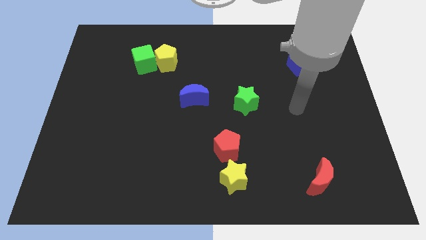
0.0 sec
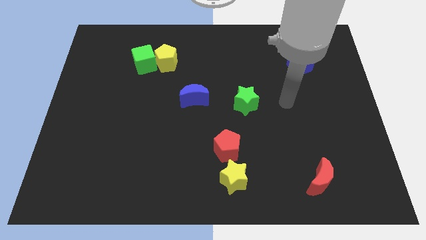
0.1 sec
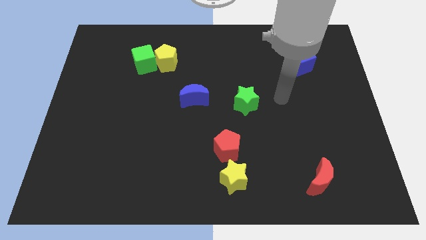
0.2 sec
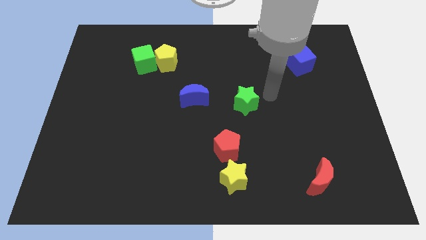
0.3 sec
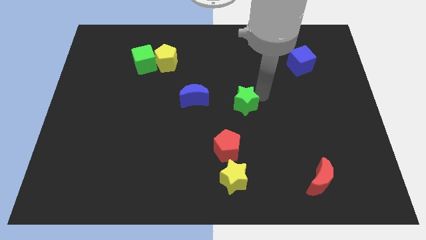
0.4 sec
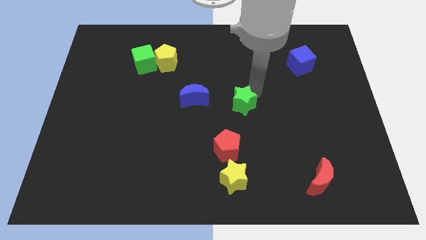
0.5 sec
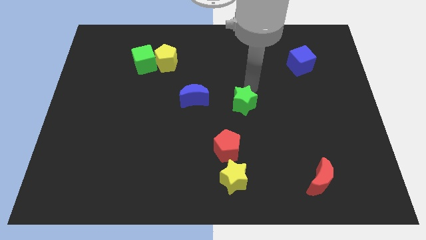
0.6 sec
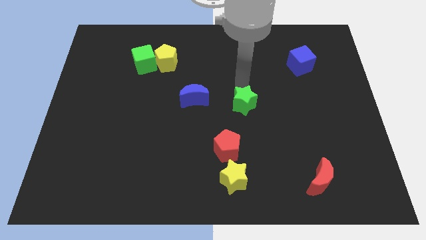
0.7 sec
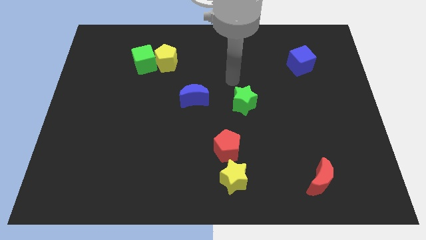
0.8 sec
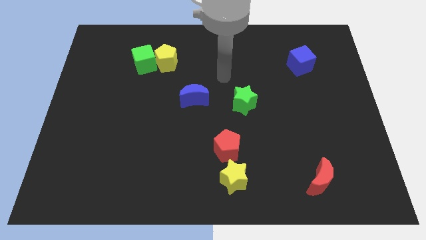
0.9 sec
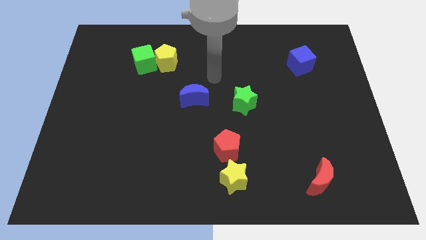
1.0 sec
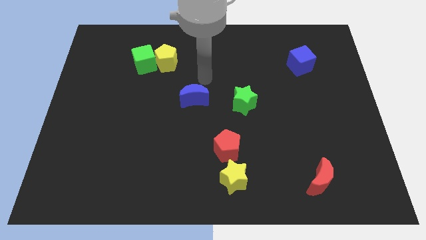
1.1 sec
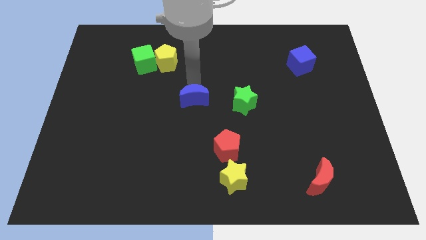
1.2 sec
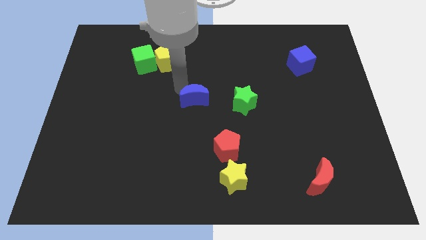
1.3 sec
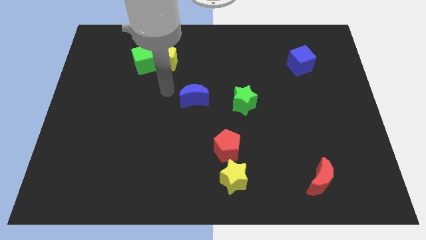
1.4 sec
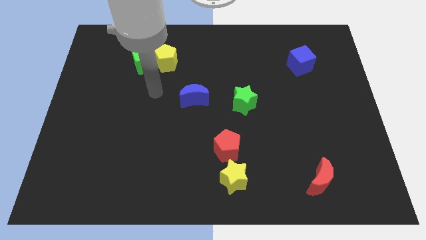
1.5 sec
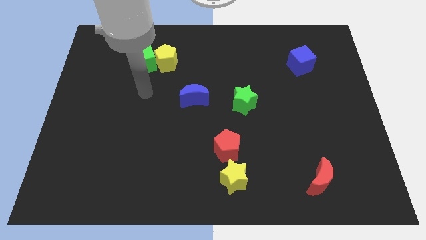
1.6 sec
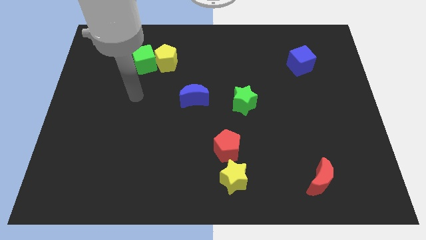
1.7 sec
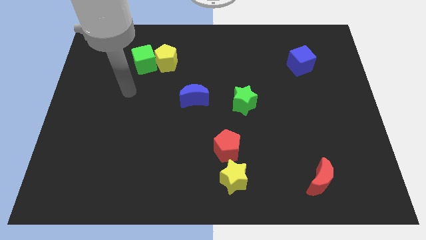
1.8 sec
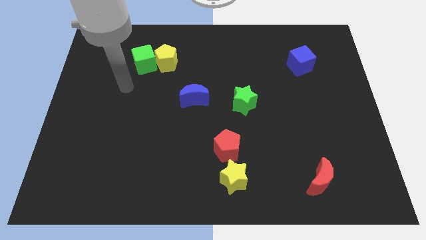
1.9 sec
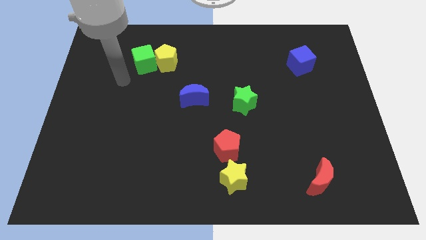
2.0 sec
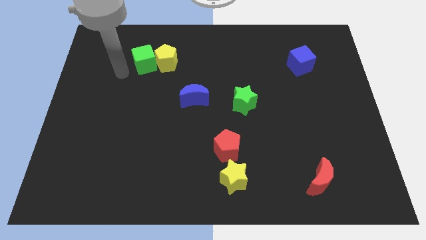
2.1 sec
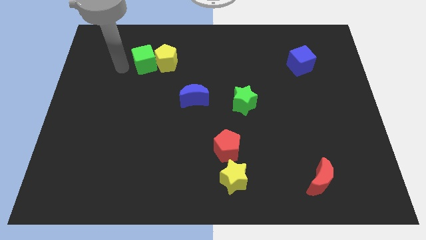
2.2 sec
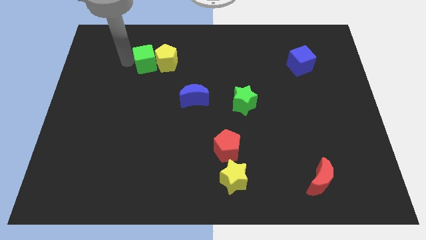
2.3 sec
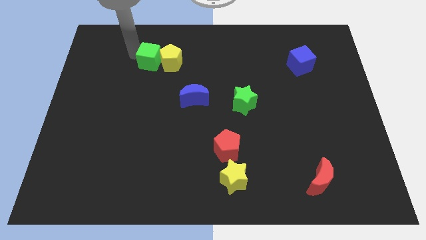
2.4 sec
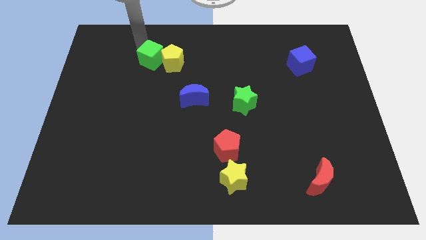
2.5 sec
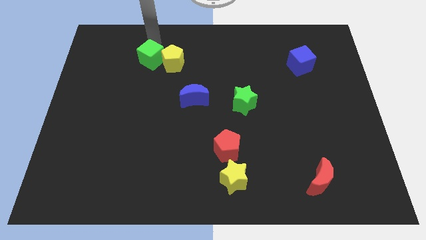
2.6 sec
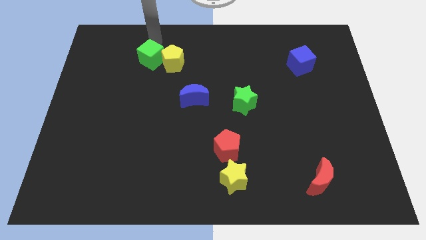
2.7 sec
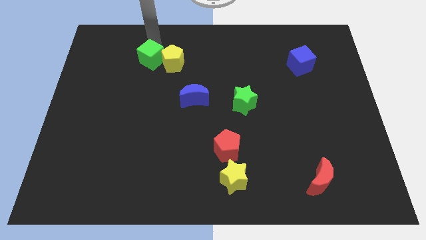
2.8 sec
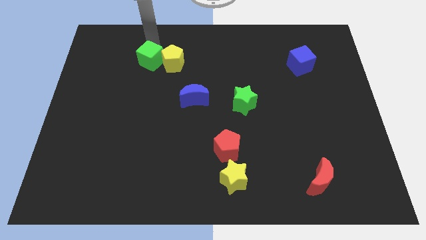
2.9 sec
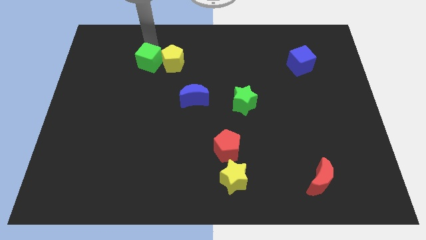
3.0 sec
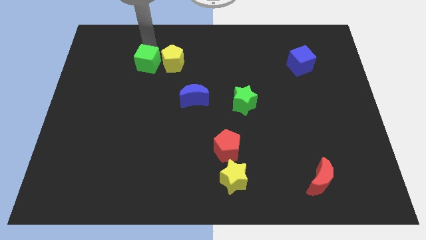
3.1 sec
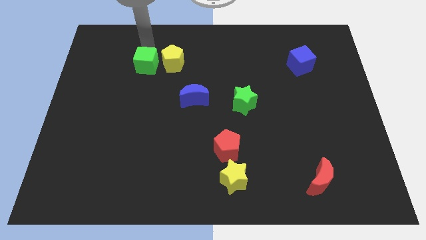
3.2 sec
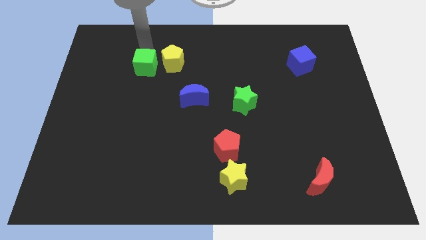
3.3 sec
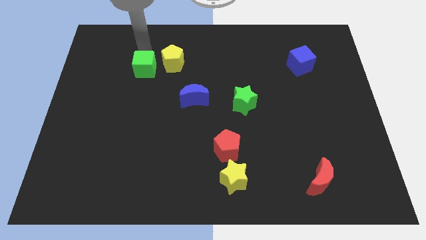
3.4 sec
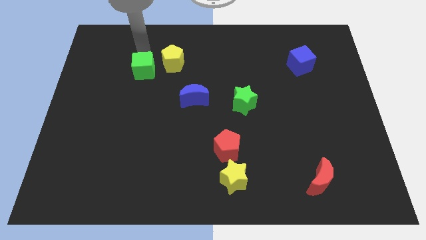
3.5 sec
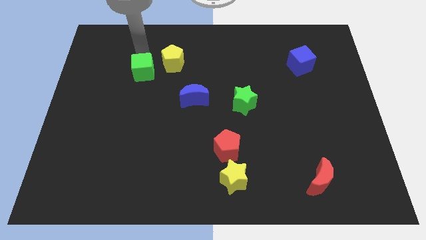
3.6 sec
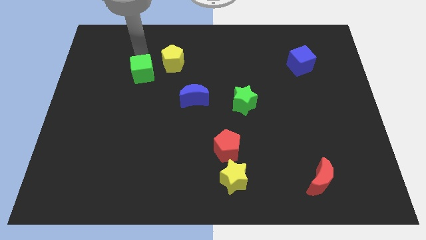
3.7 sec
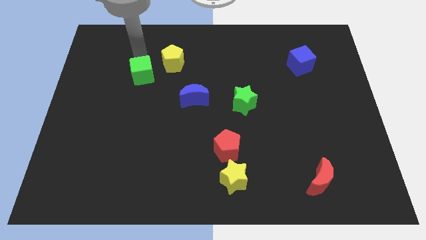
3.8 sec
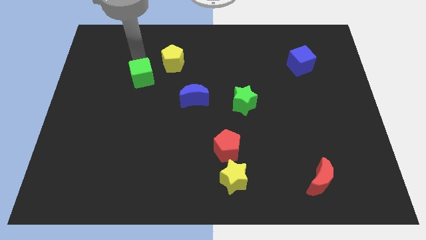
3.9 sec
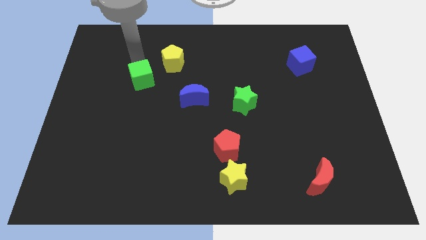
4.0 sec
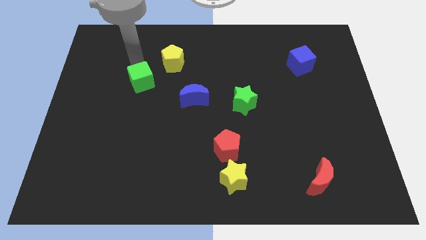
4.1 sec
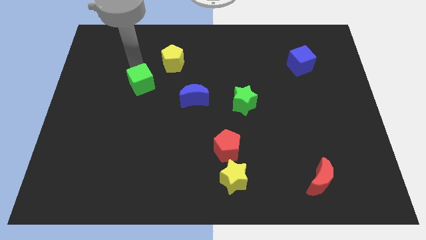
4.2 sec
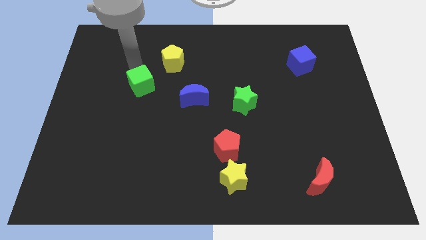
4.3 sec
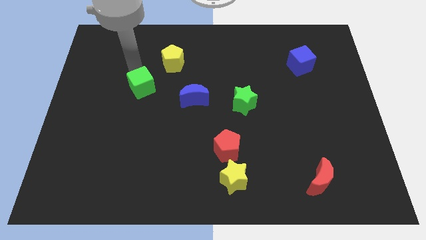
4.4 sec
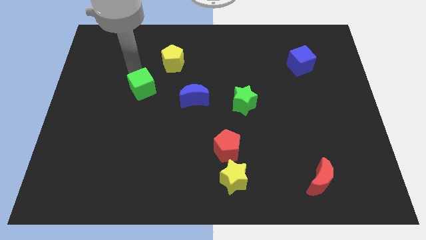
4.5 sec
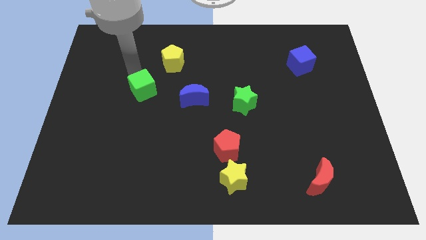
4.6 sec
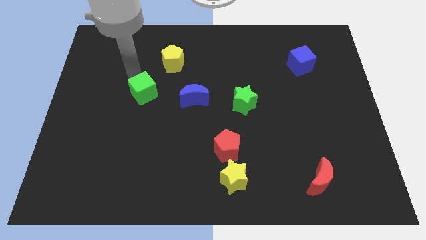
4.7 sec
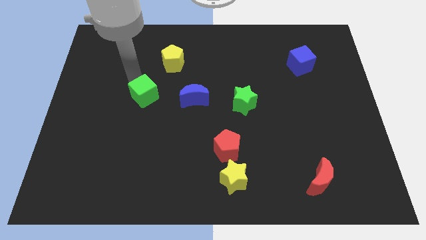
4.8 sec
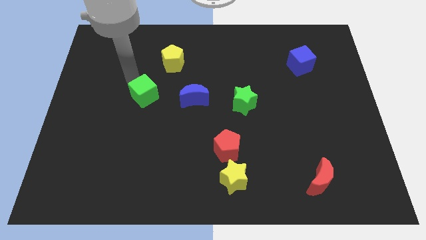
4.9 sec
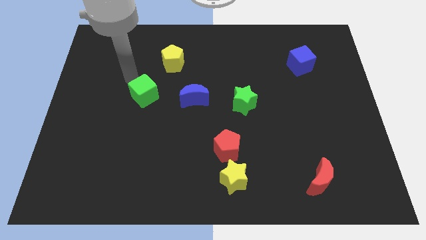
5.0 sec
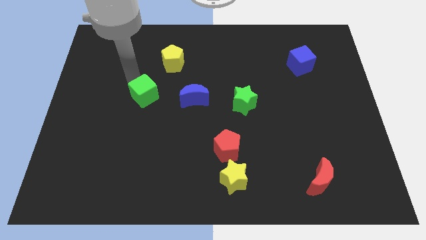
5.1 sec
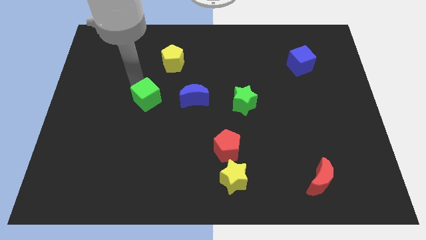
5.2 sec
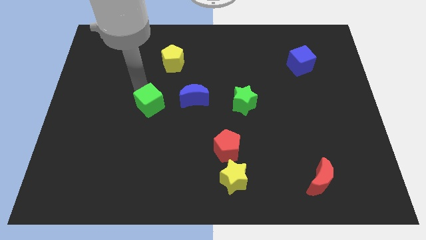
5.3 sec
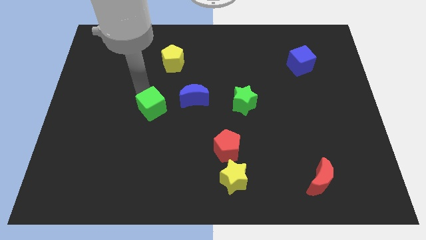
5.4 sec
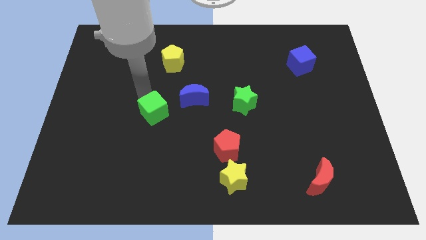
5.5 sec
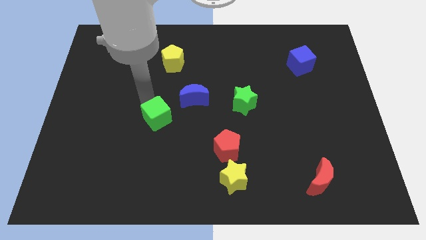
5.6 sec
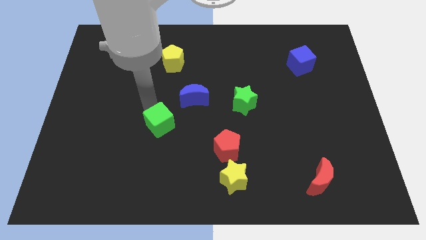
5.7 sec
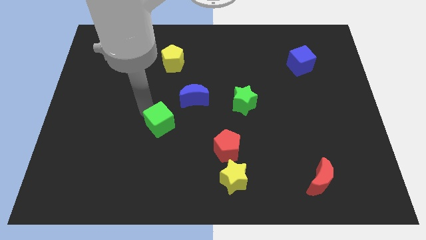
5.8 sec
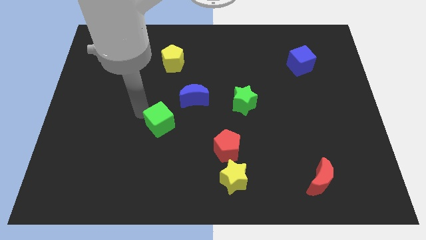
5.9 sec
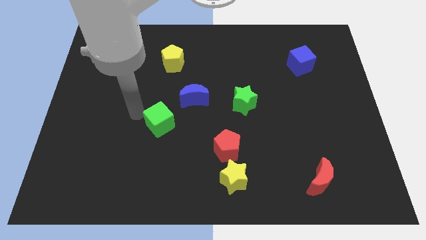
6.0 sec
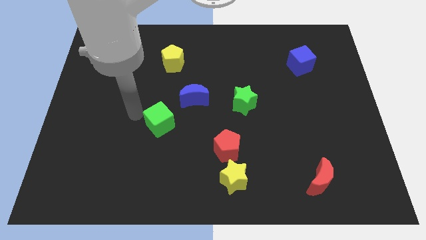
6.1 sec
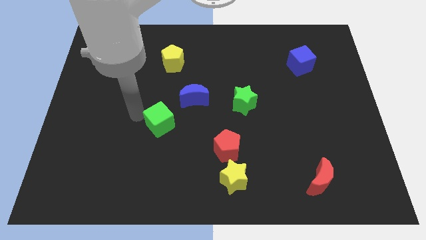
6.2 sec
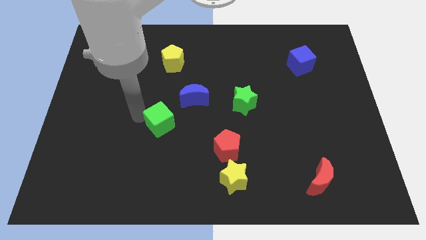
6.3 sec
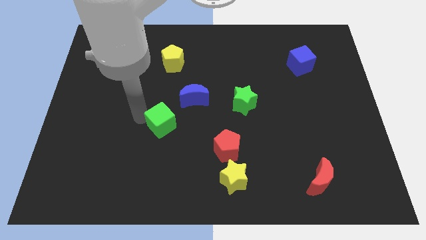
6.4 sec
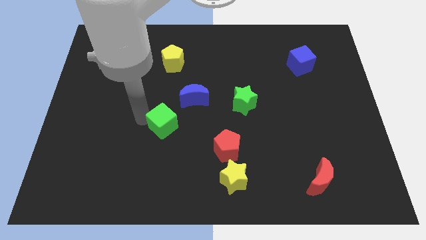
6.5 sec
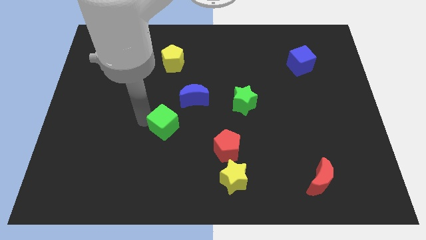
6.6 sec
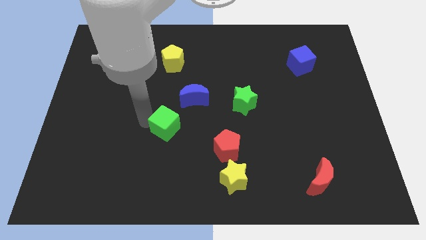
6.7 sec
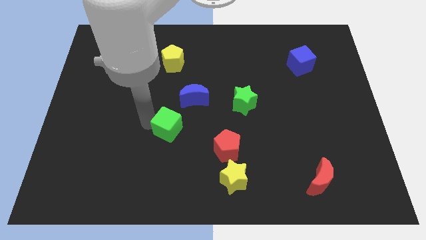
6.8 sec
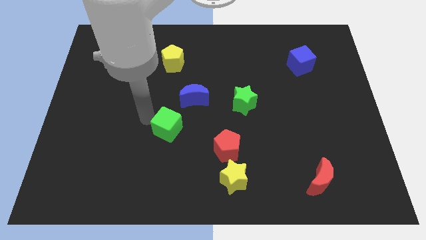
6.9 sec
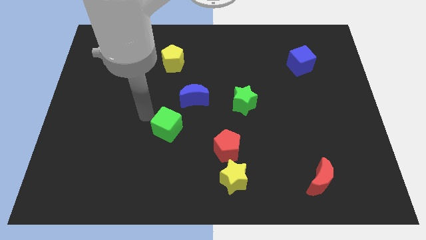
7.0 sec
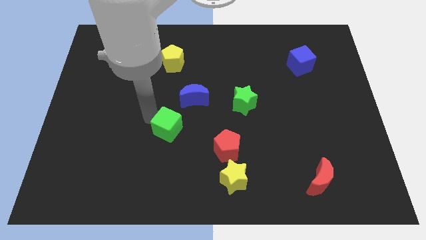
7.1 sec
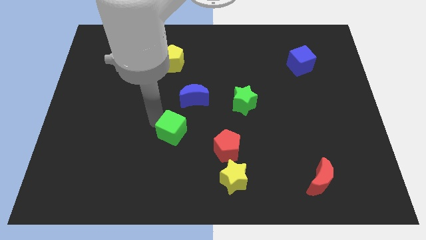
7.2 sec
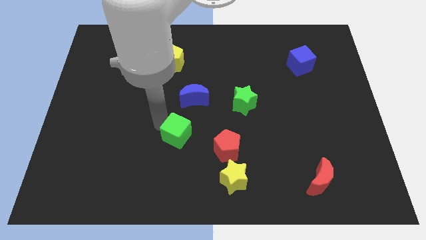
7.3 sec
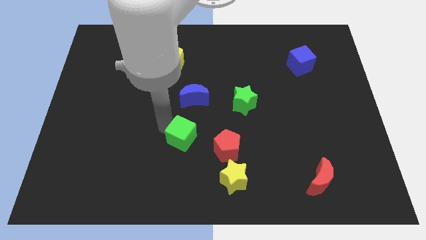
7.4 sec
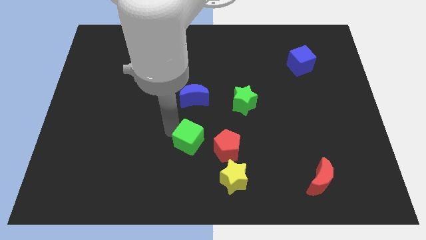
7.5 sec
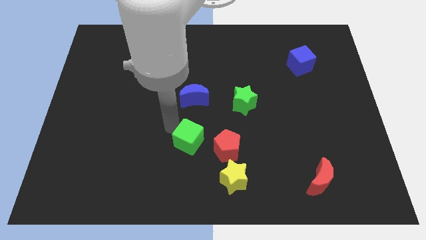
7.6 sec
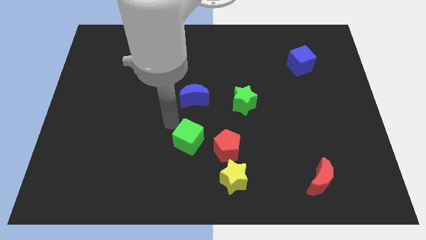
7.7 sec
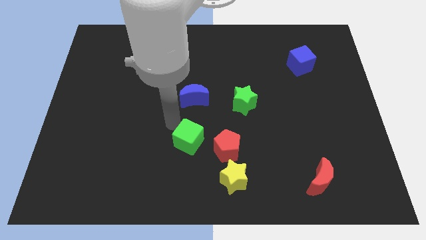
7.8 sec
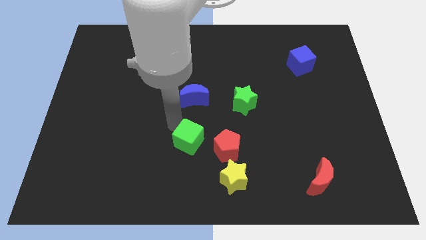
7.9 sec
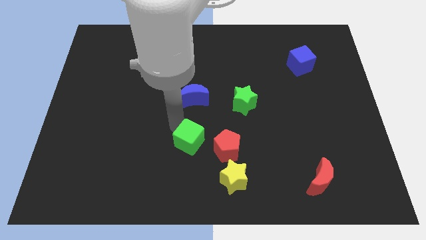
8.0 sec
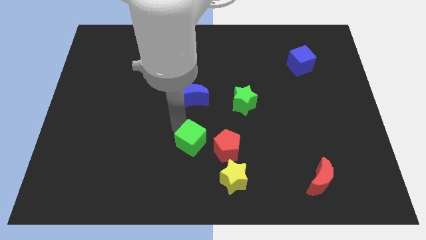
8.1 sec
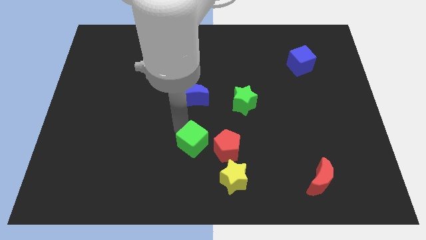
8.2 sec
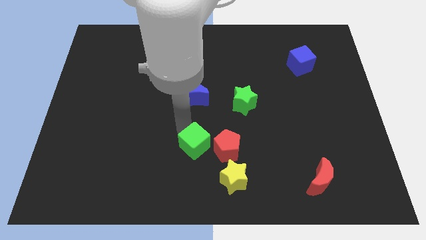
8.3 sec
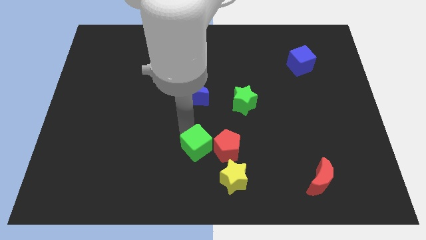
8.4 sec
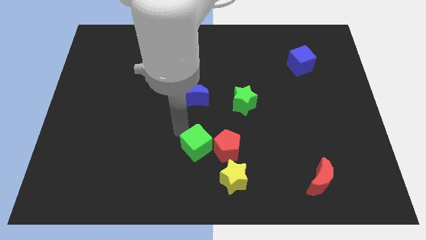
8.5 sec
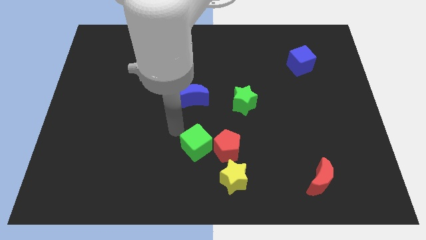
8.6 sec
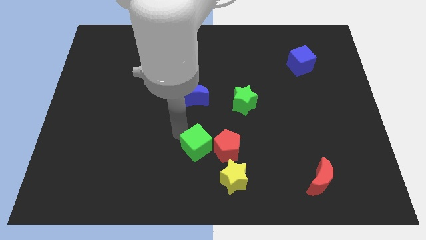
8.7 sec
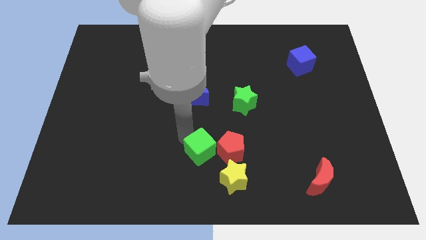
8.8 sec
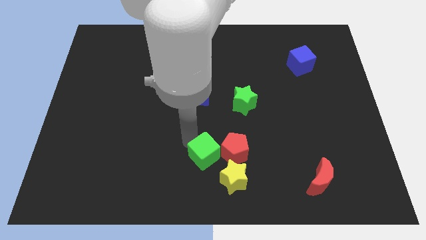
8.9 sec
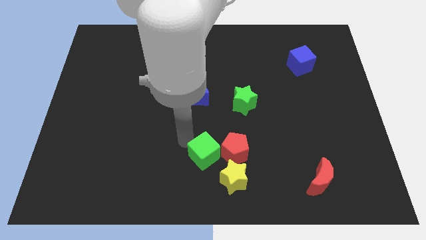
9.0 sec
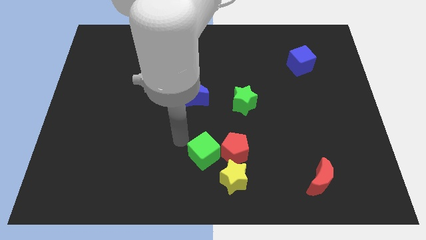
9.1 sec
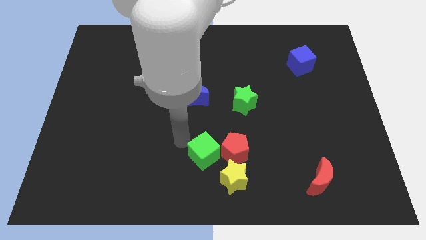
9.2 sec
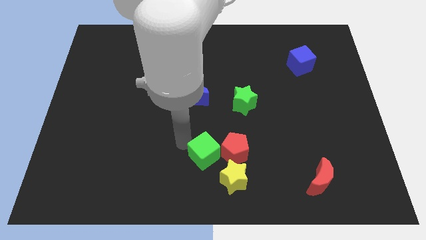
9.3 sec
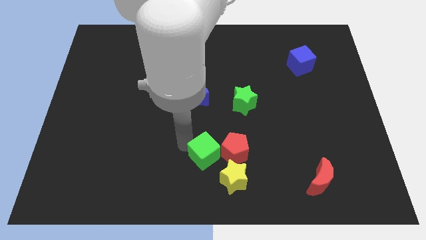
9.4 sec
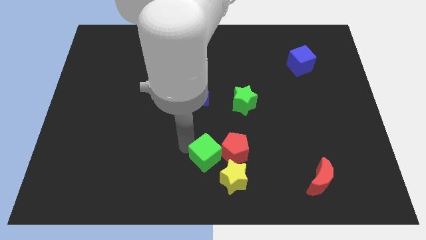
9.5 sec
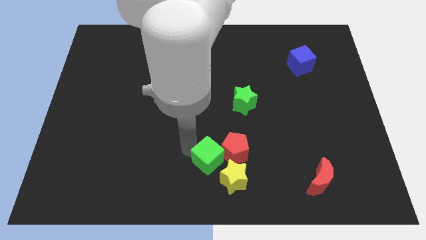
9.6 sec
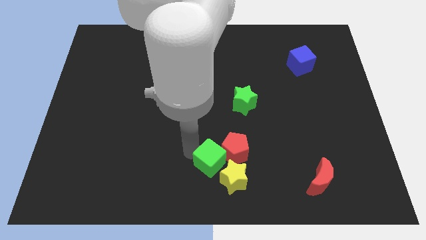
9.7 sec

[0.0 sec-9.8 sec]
move the green cube close to the yellow star
